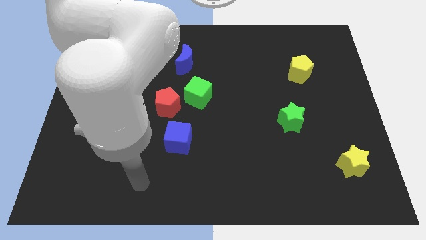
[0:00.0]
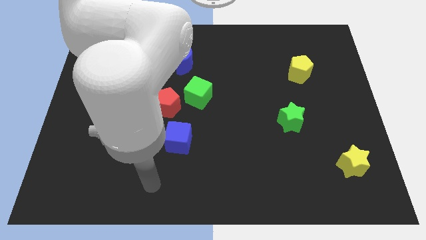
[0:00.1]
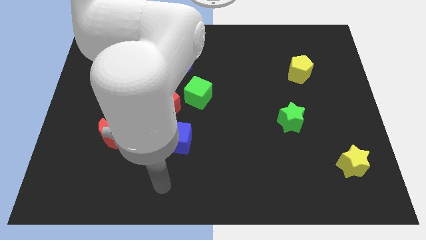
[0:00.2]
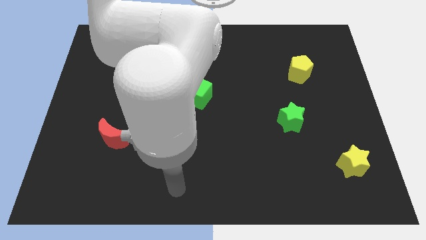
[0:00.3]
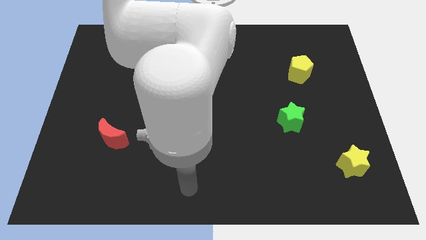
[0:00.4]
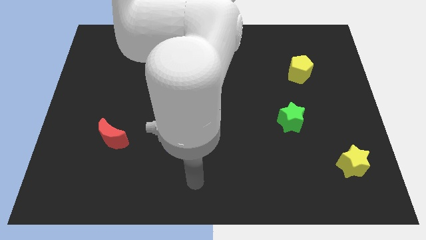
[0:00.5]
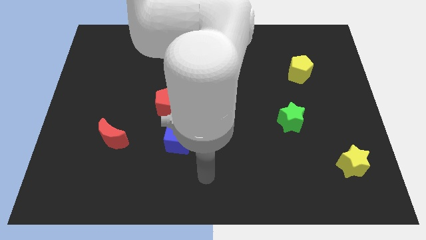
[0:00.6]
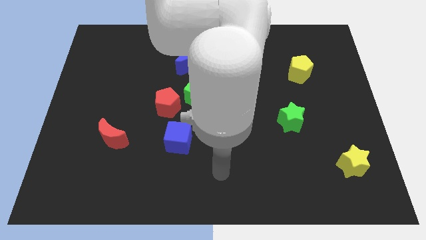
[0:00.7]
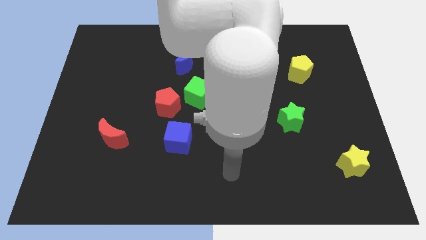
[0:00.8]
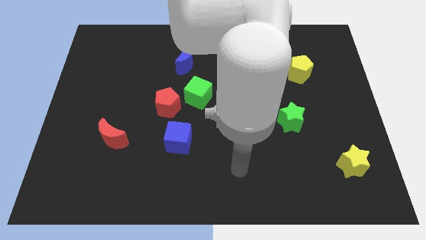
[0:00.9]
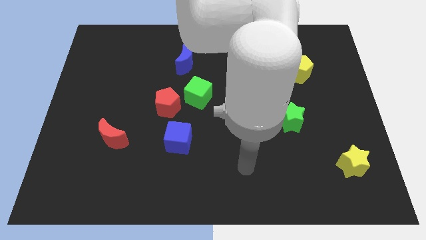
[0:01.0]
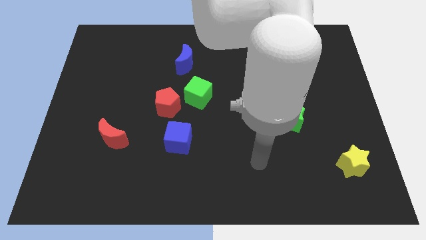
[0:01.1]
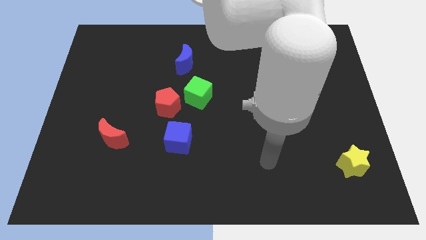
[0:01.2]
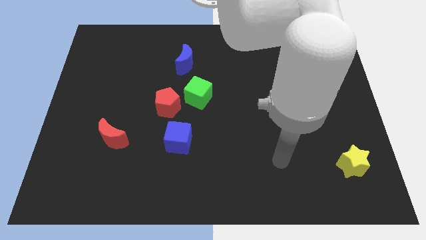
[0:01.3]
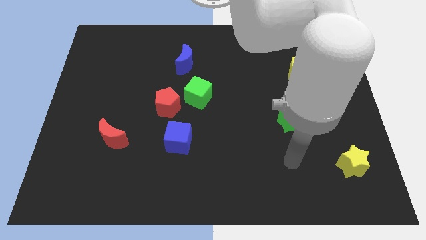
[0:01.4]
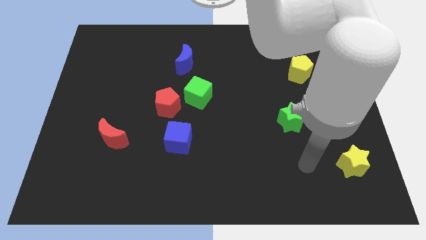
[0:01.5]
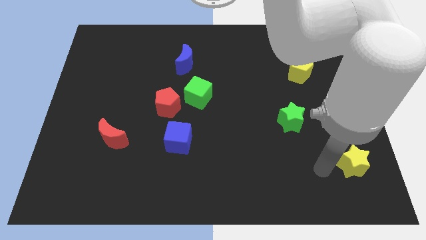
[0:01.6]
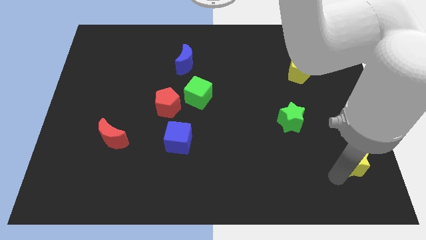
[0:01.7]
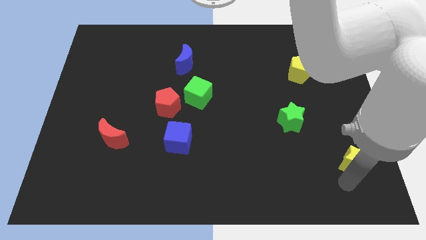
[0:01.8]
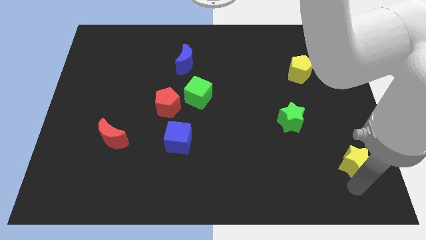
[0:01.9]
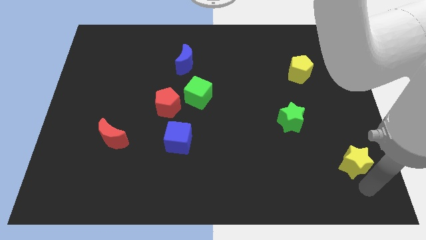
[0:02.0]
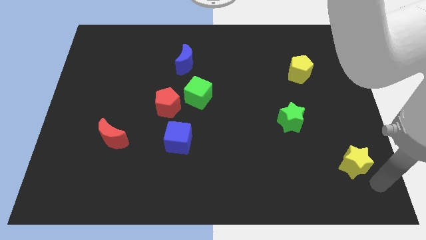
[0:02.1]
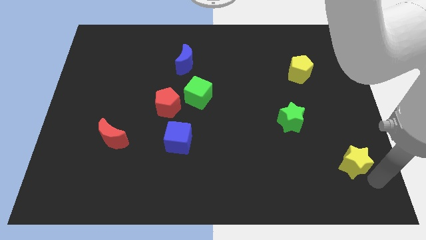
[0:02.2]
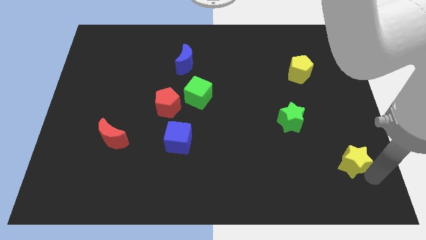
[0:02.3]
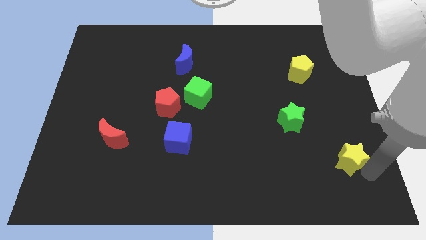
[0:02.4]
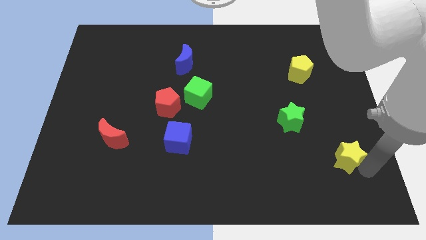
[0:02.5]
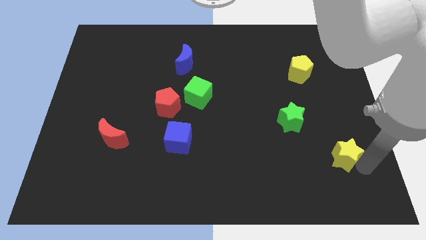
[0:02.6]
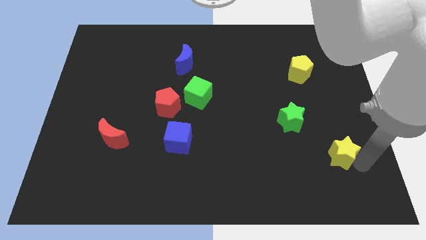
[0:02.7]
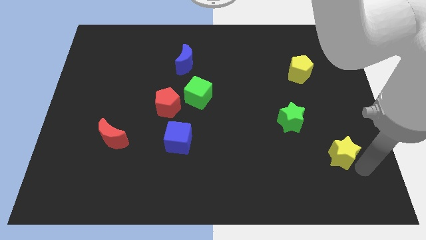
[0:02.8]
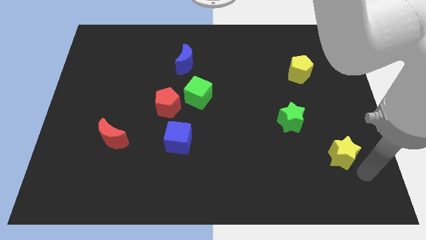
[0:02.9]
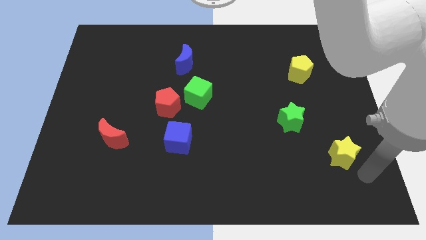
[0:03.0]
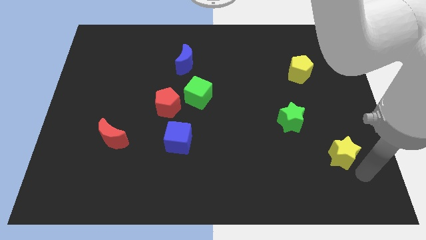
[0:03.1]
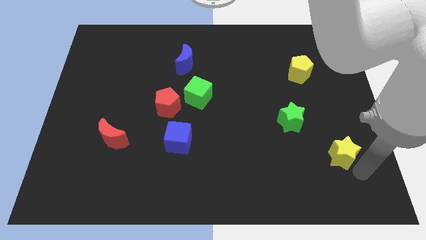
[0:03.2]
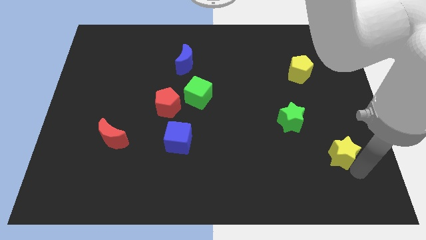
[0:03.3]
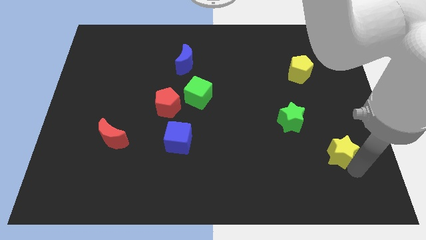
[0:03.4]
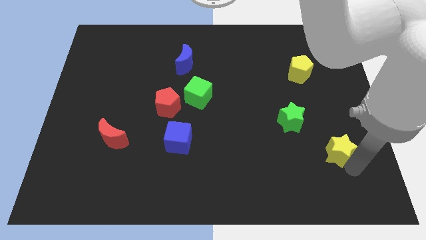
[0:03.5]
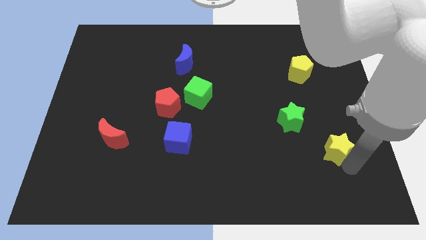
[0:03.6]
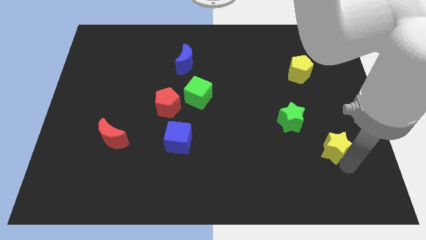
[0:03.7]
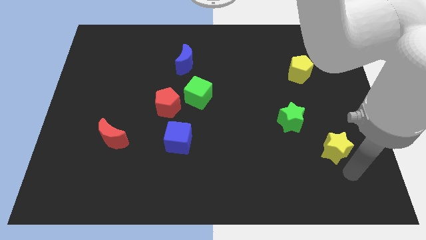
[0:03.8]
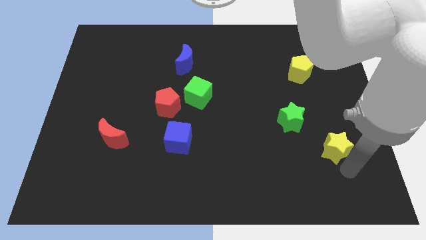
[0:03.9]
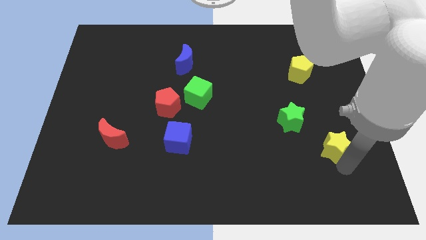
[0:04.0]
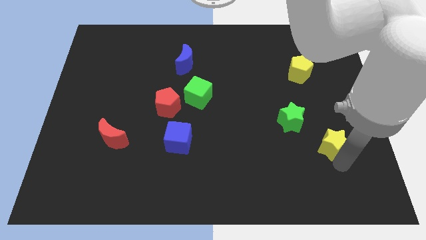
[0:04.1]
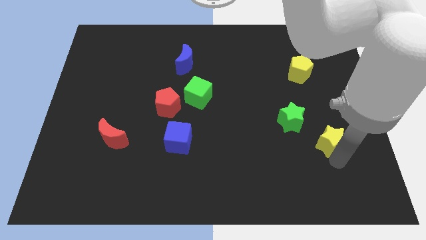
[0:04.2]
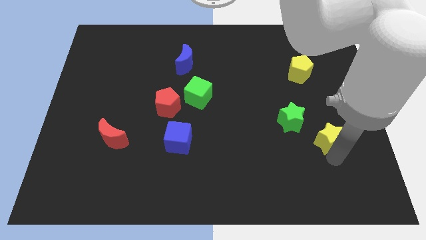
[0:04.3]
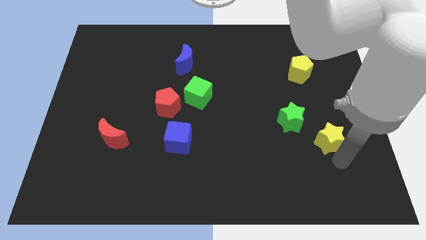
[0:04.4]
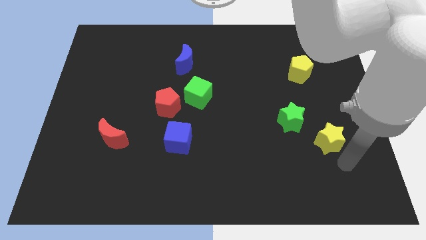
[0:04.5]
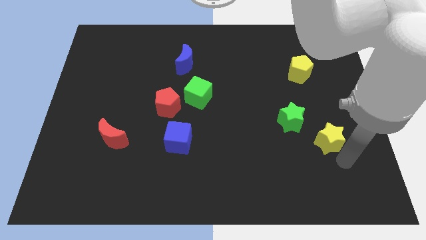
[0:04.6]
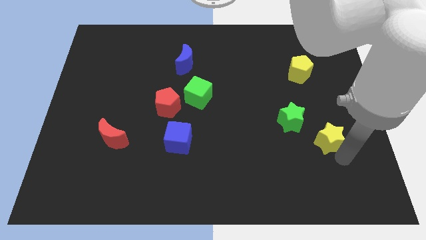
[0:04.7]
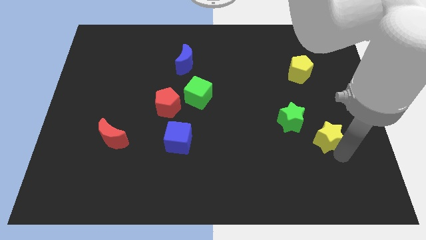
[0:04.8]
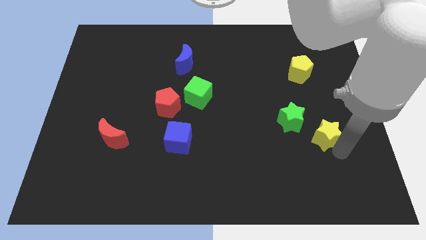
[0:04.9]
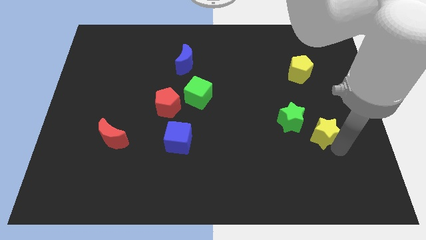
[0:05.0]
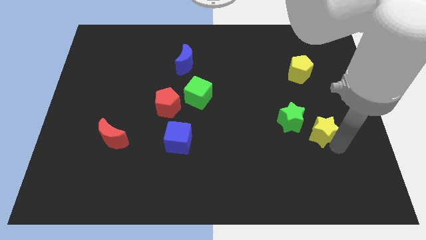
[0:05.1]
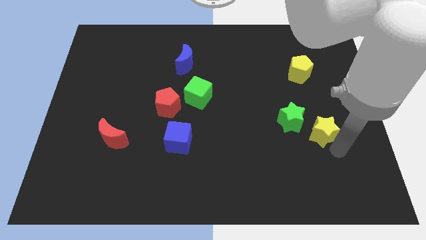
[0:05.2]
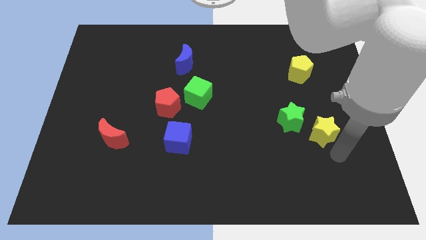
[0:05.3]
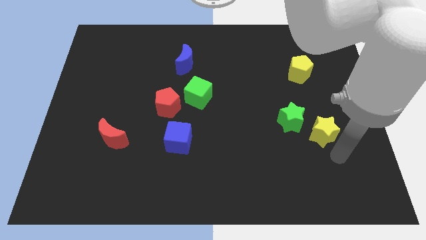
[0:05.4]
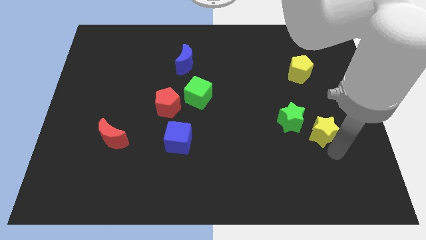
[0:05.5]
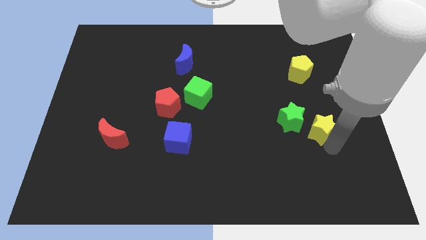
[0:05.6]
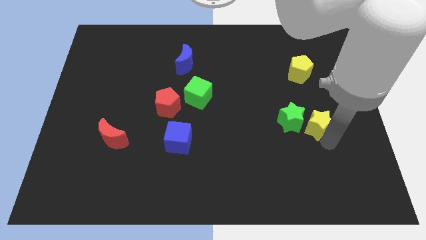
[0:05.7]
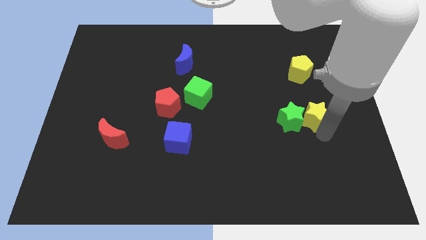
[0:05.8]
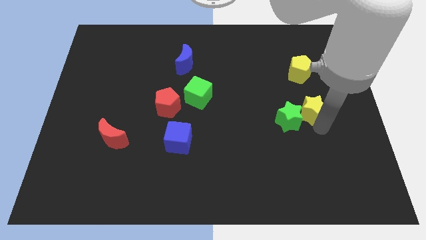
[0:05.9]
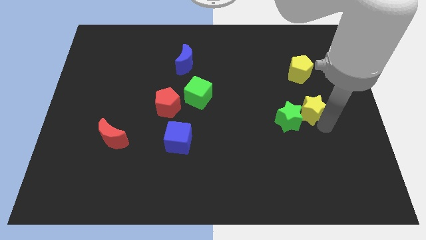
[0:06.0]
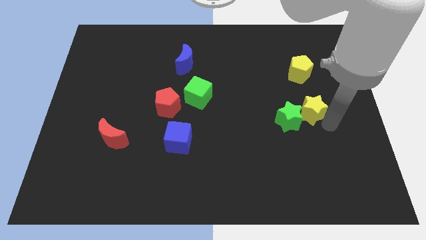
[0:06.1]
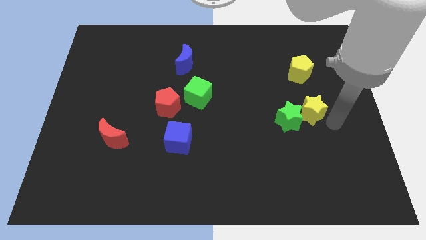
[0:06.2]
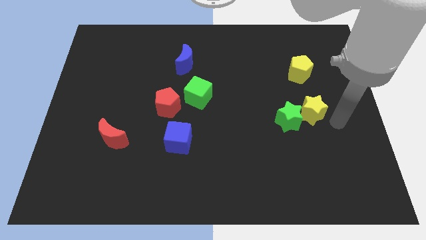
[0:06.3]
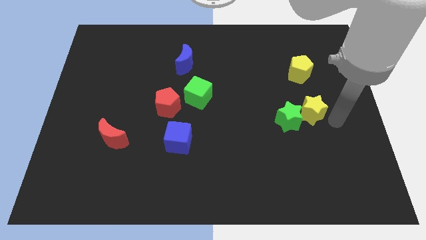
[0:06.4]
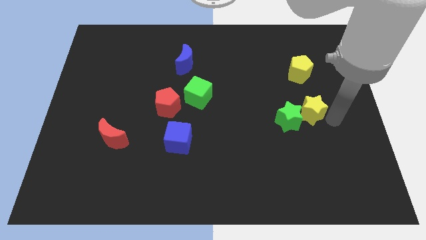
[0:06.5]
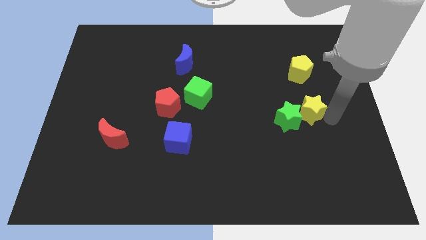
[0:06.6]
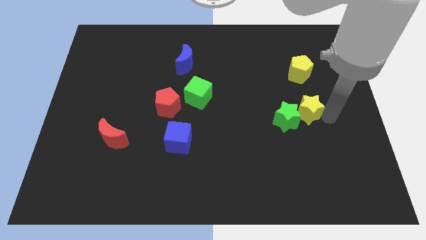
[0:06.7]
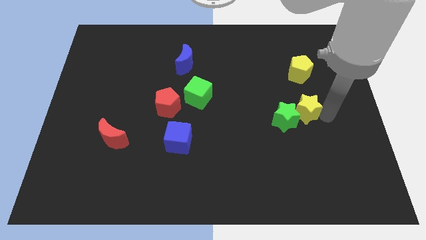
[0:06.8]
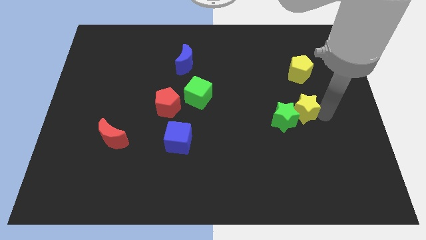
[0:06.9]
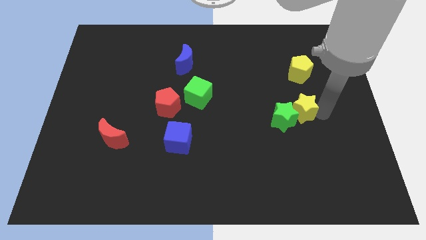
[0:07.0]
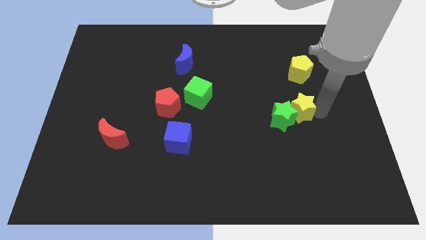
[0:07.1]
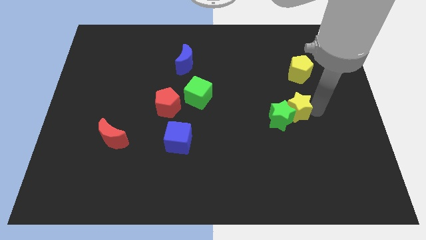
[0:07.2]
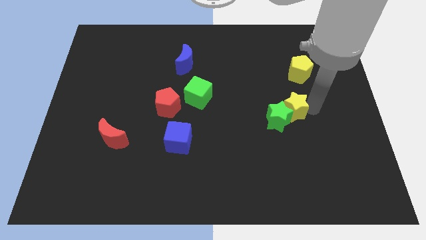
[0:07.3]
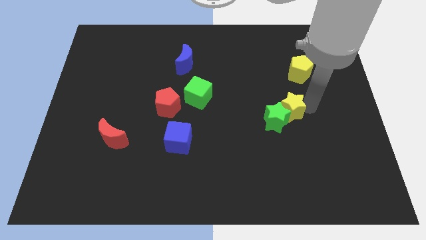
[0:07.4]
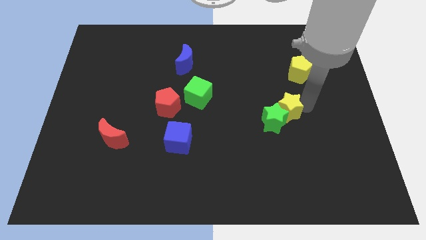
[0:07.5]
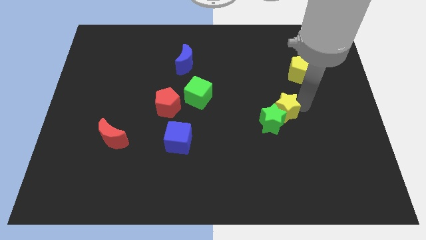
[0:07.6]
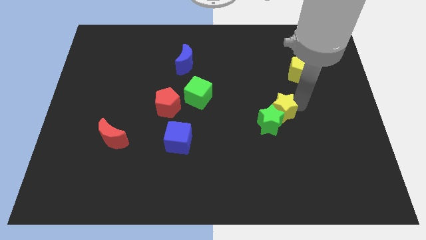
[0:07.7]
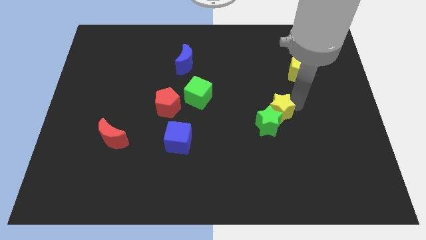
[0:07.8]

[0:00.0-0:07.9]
move the yellow star up and to the left

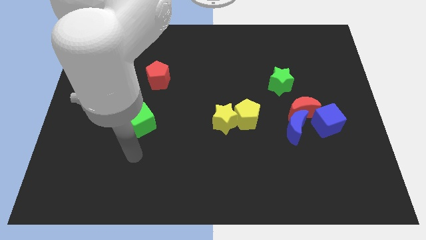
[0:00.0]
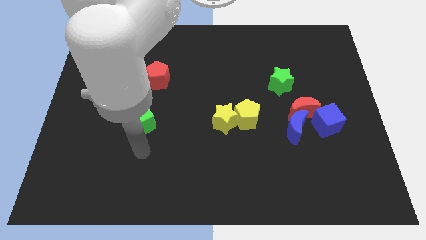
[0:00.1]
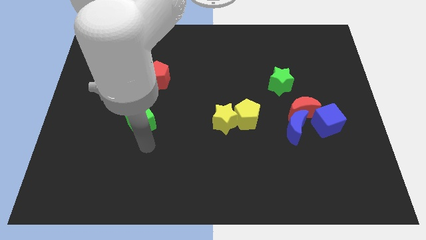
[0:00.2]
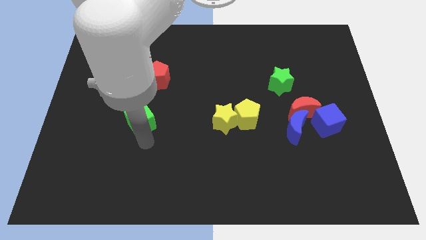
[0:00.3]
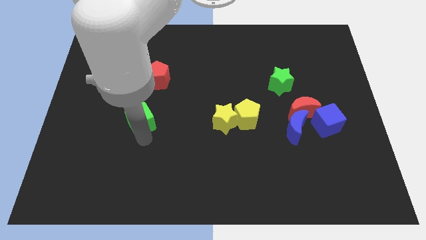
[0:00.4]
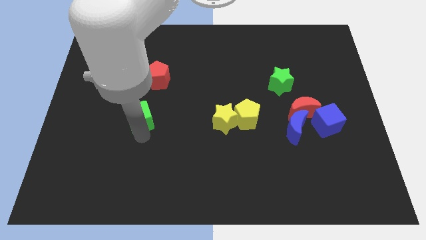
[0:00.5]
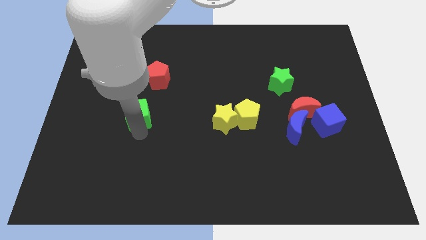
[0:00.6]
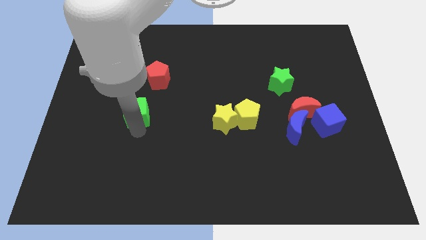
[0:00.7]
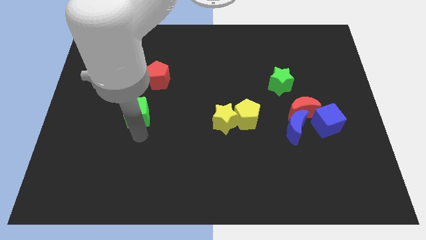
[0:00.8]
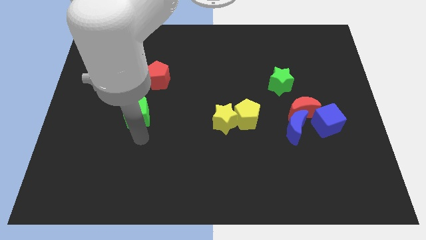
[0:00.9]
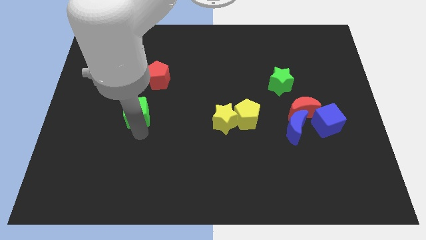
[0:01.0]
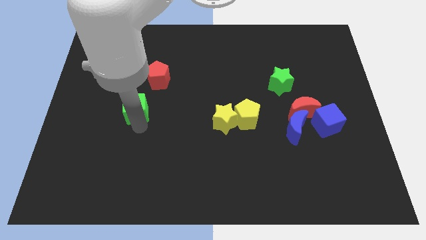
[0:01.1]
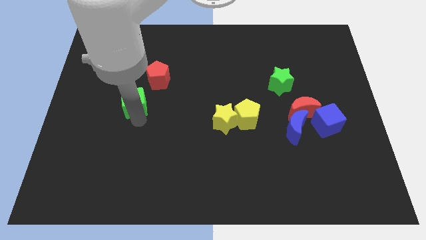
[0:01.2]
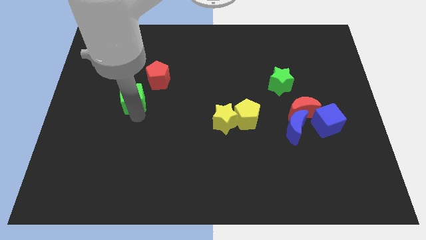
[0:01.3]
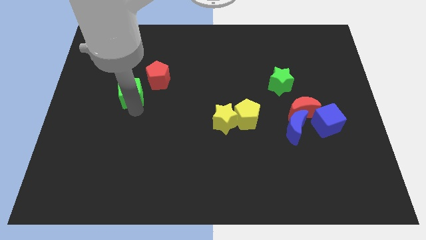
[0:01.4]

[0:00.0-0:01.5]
slide the green cube upwards somewhat
